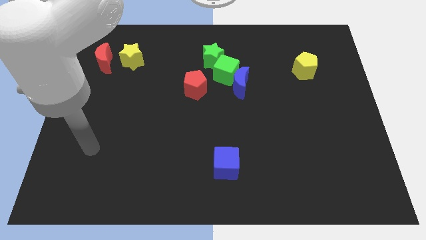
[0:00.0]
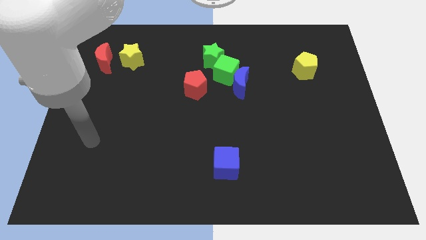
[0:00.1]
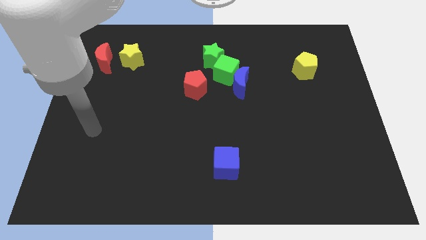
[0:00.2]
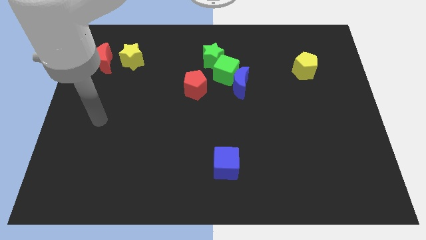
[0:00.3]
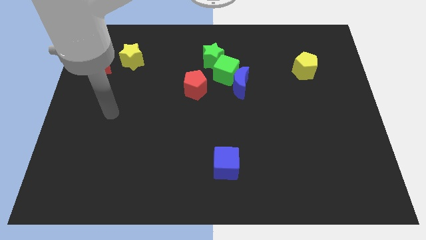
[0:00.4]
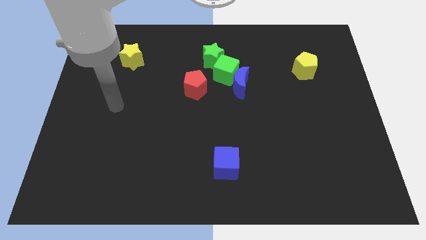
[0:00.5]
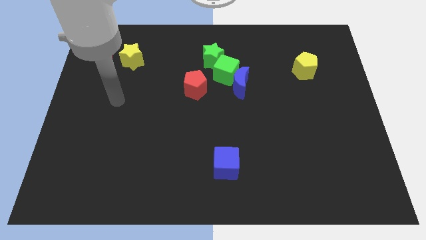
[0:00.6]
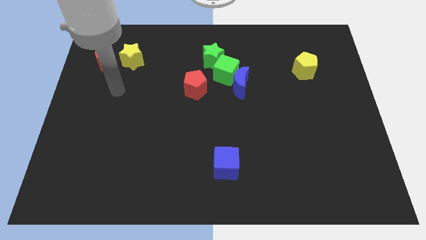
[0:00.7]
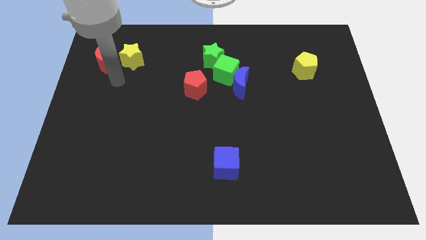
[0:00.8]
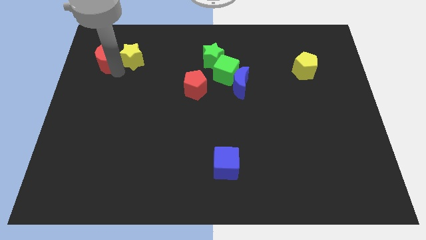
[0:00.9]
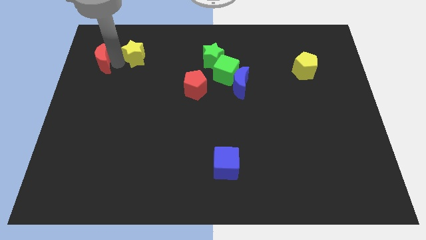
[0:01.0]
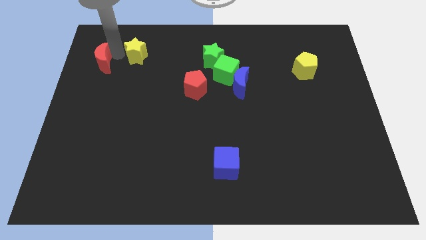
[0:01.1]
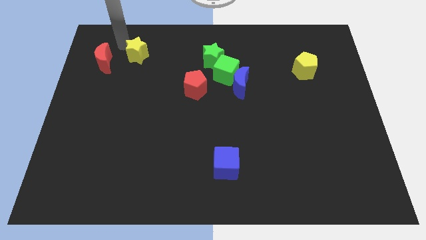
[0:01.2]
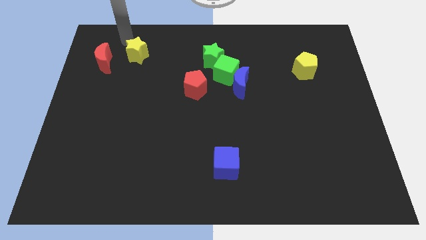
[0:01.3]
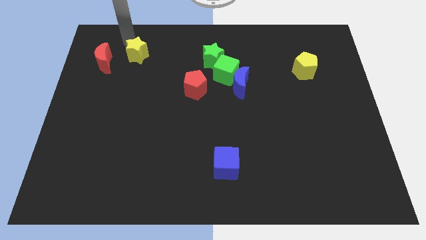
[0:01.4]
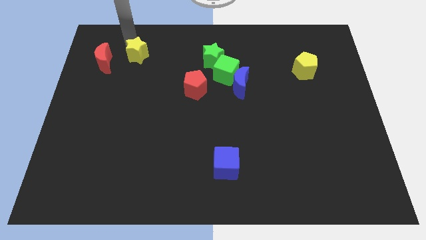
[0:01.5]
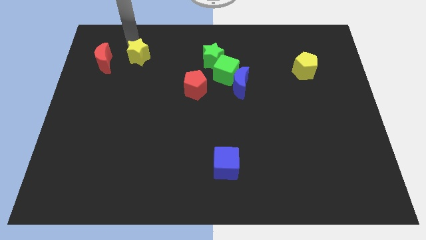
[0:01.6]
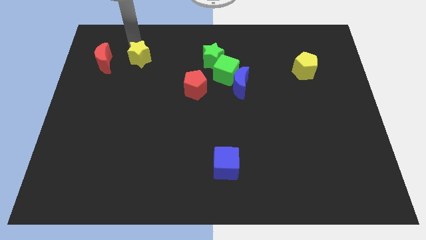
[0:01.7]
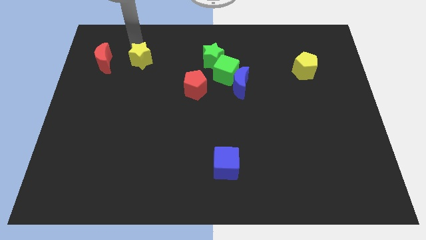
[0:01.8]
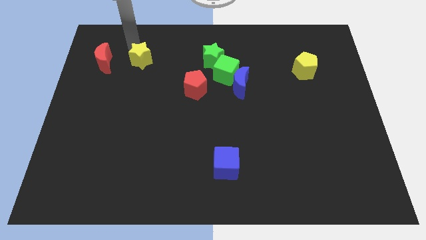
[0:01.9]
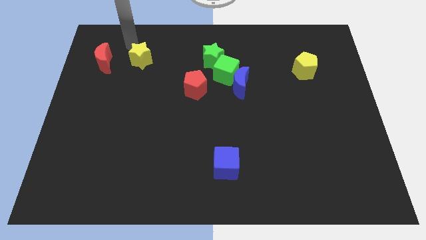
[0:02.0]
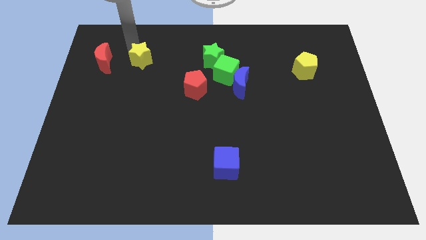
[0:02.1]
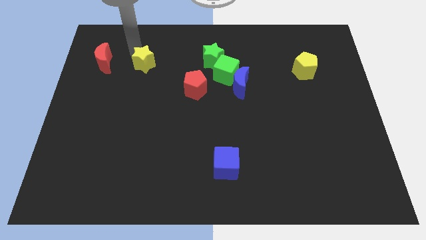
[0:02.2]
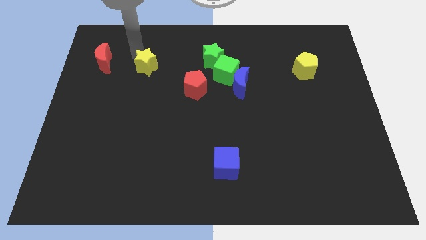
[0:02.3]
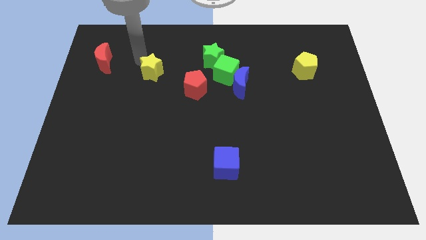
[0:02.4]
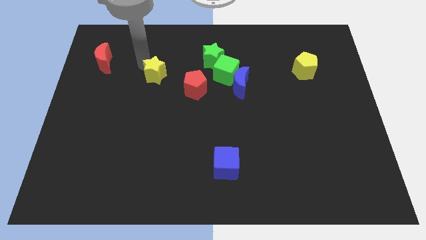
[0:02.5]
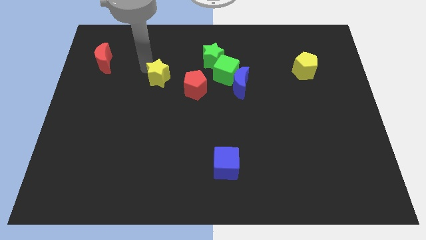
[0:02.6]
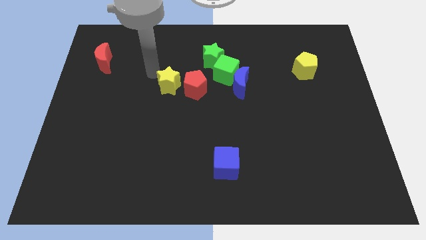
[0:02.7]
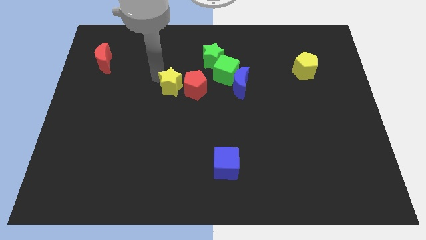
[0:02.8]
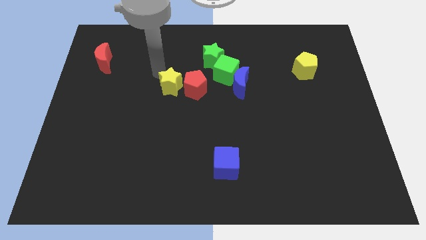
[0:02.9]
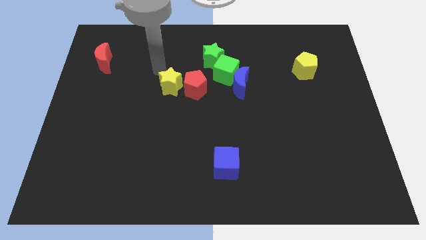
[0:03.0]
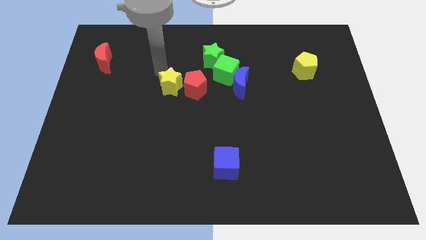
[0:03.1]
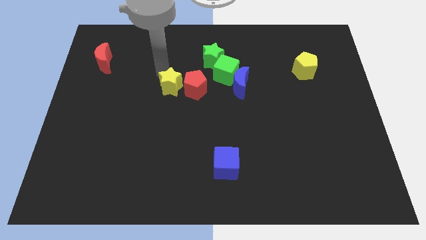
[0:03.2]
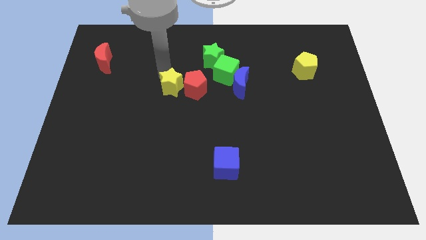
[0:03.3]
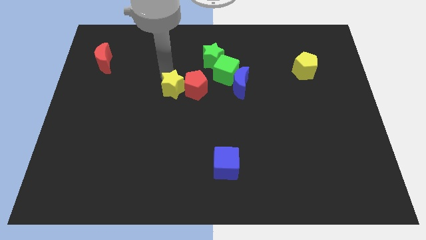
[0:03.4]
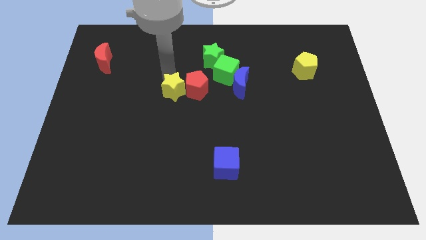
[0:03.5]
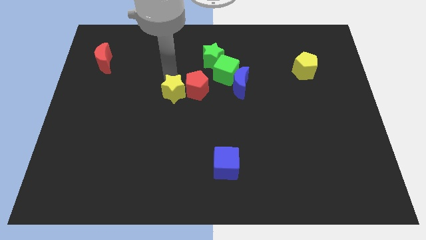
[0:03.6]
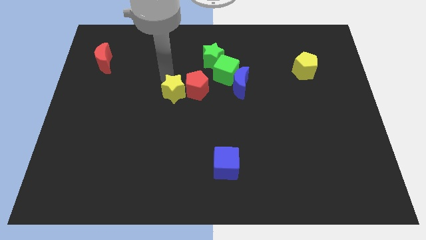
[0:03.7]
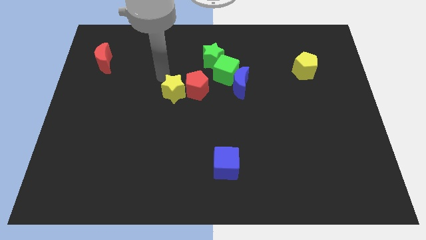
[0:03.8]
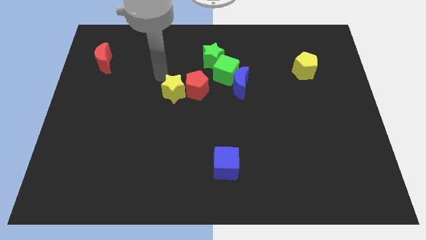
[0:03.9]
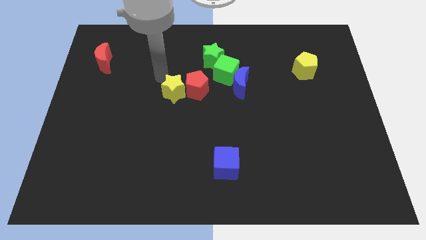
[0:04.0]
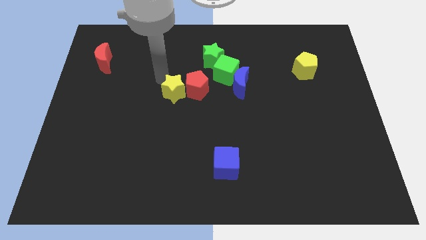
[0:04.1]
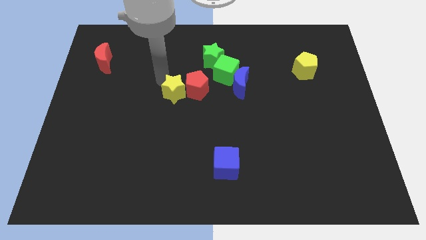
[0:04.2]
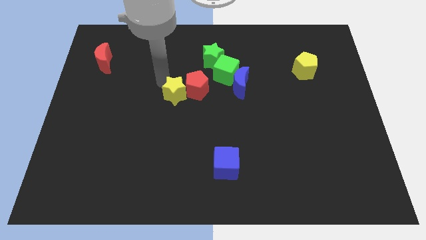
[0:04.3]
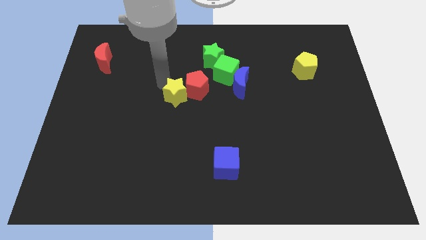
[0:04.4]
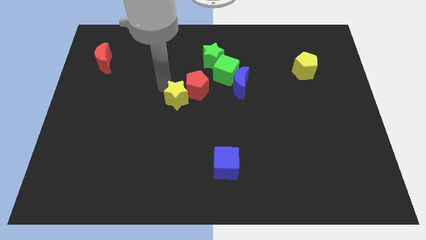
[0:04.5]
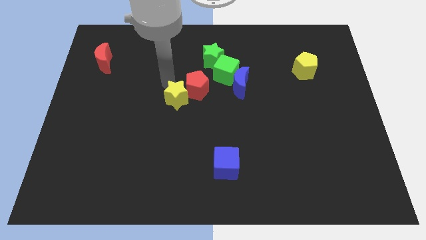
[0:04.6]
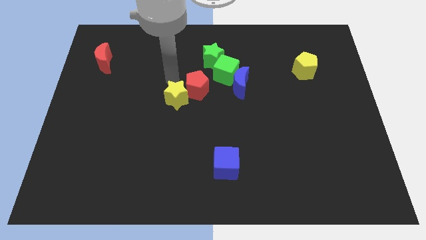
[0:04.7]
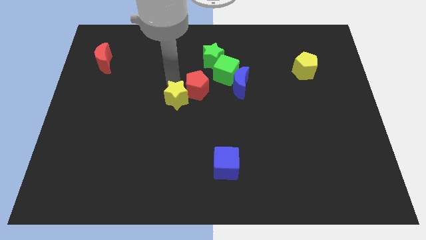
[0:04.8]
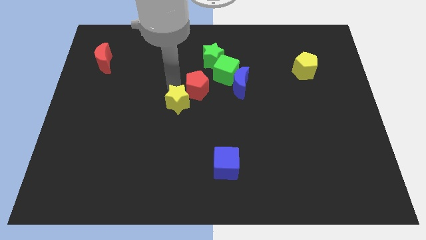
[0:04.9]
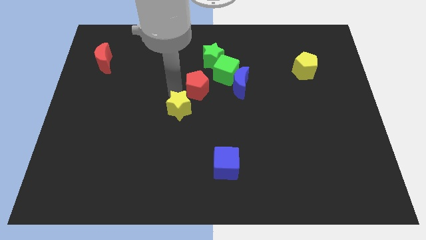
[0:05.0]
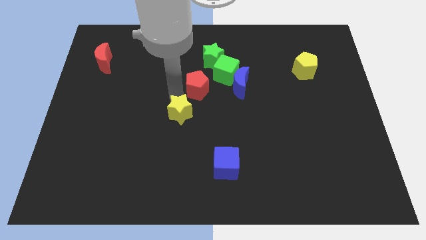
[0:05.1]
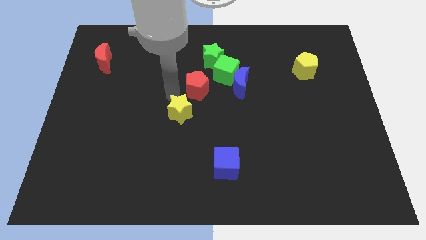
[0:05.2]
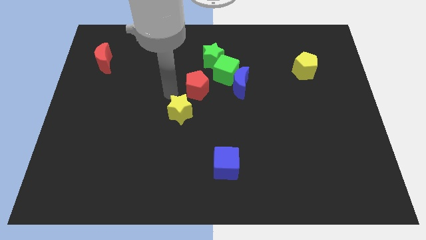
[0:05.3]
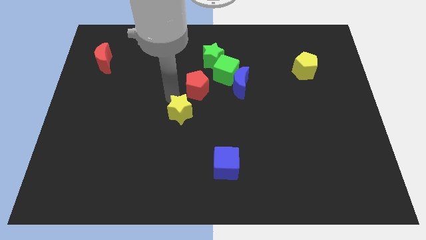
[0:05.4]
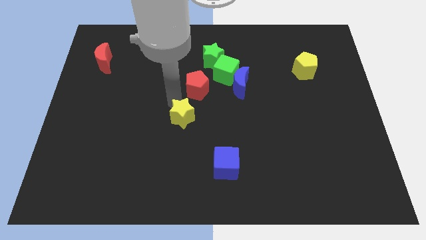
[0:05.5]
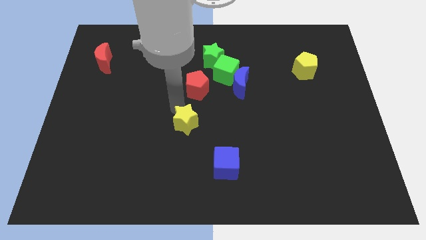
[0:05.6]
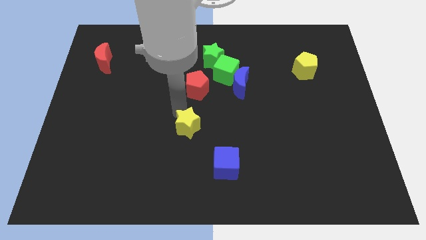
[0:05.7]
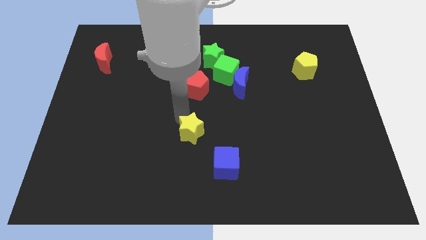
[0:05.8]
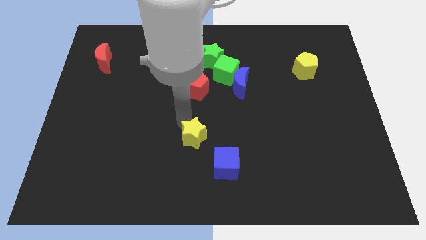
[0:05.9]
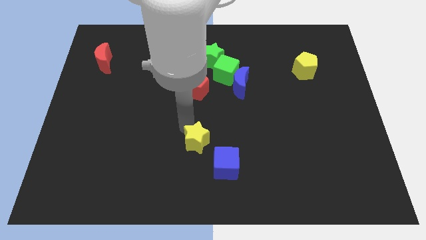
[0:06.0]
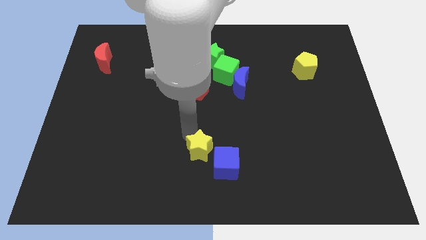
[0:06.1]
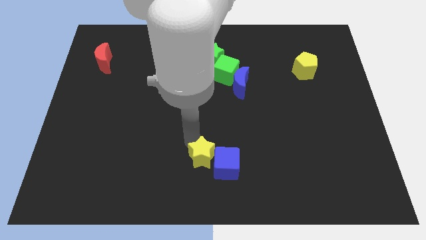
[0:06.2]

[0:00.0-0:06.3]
put the yellow star close to the blue cube

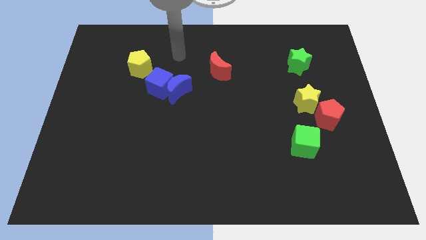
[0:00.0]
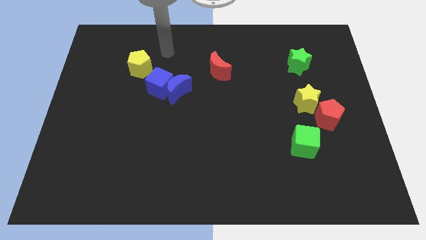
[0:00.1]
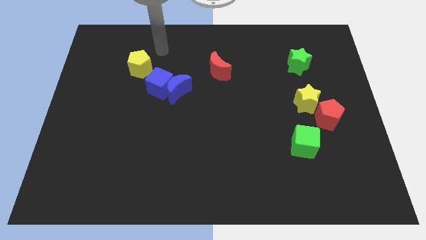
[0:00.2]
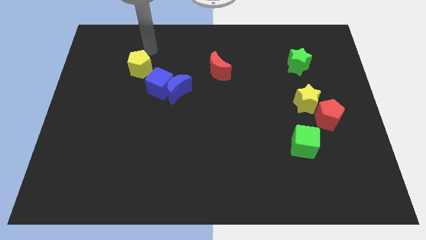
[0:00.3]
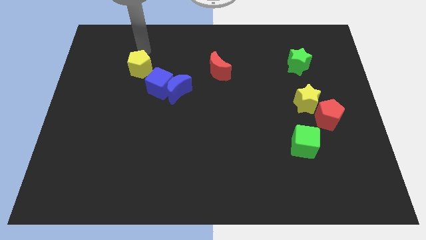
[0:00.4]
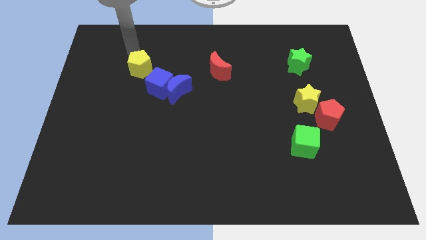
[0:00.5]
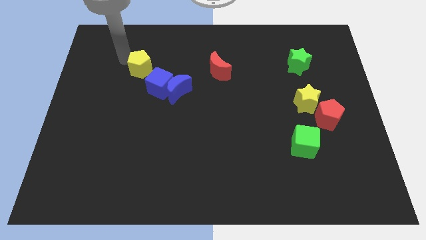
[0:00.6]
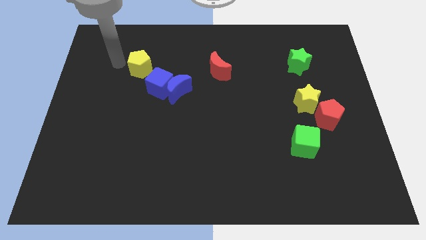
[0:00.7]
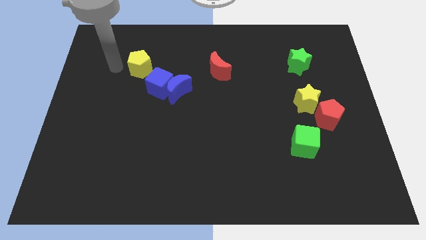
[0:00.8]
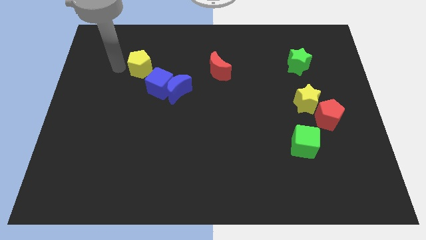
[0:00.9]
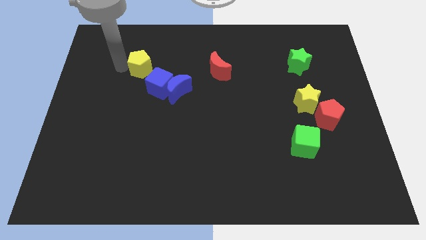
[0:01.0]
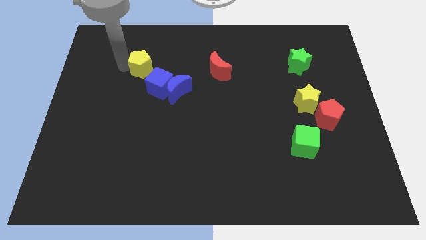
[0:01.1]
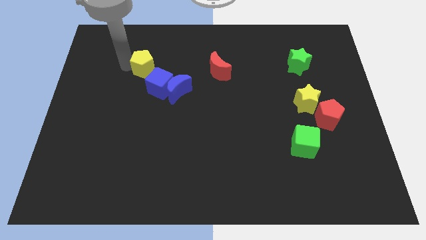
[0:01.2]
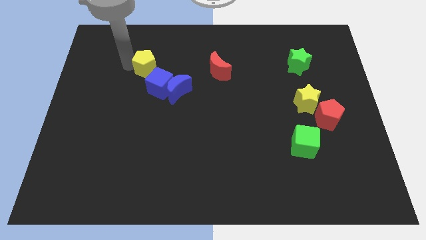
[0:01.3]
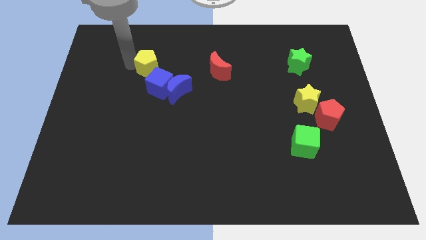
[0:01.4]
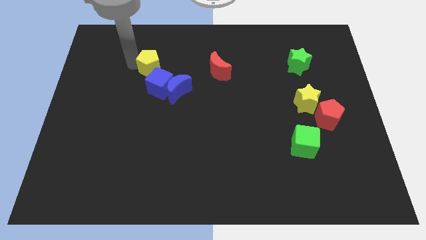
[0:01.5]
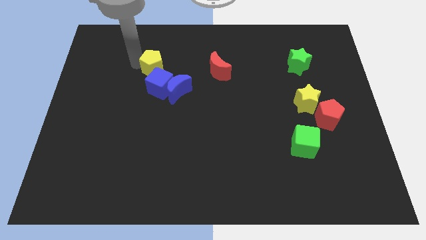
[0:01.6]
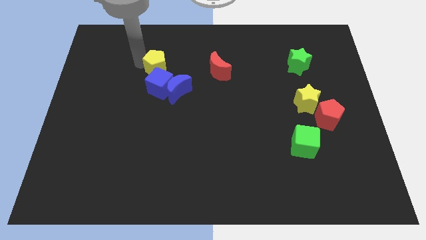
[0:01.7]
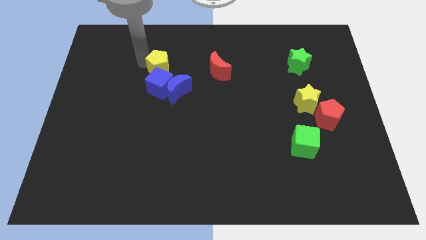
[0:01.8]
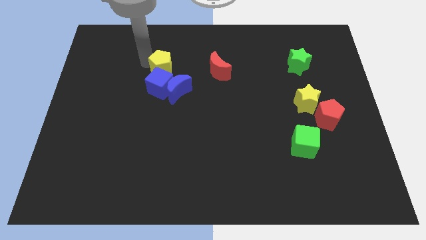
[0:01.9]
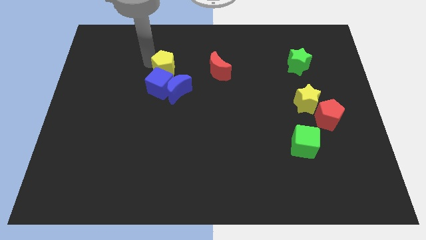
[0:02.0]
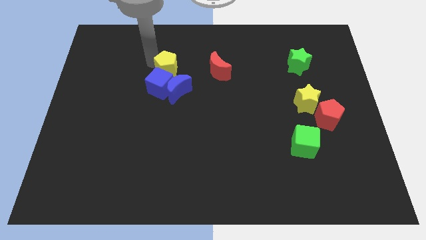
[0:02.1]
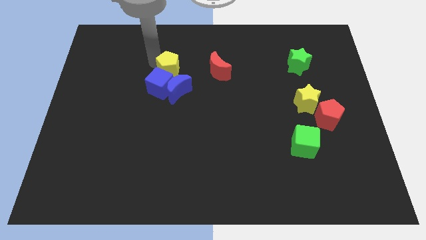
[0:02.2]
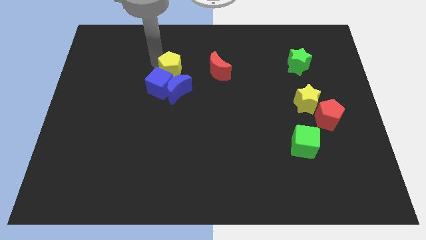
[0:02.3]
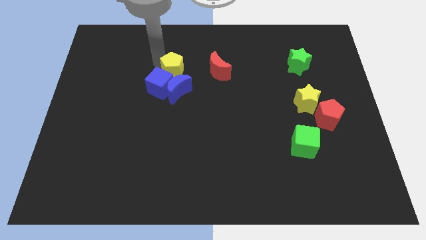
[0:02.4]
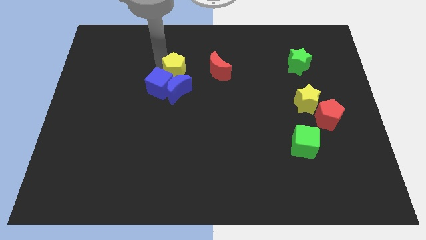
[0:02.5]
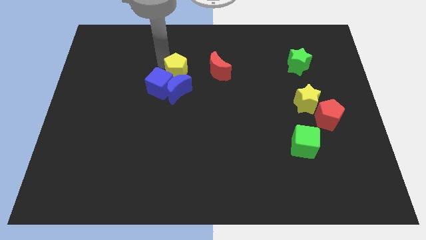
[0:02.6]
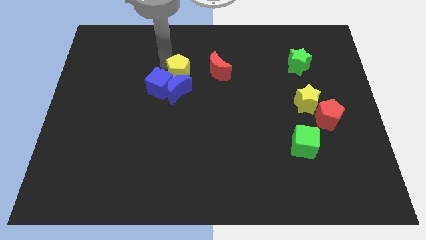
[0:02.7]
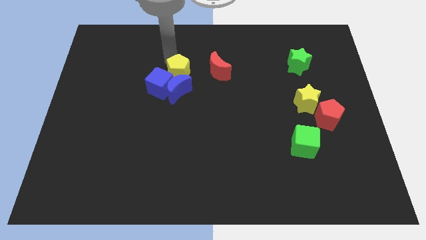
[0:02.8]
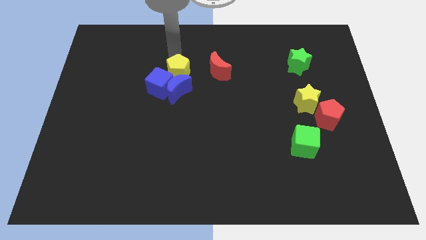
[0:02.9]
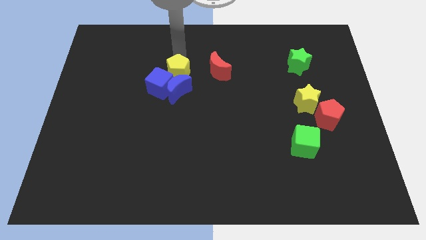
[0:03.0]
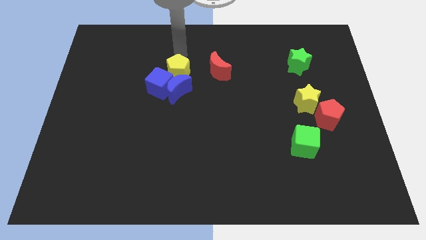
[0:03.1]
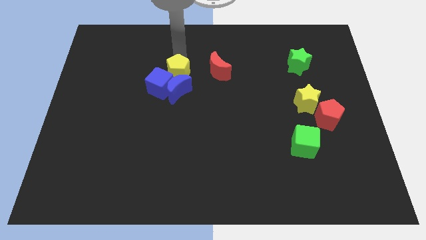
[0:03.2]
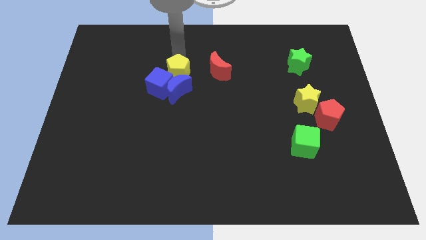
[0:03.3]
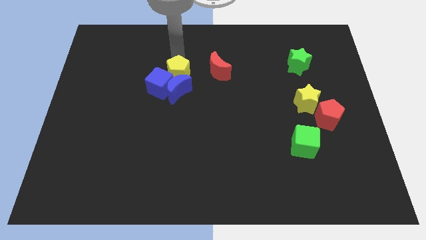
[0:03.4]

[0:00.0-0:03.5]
put the yellow pentagon next to the blue moon
